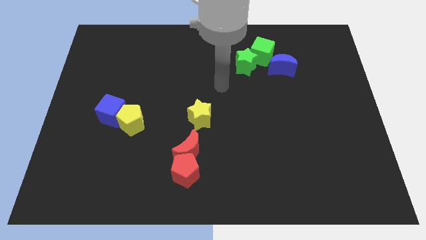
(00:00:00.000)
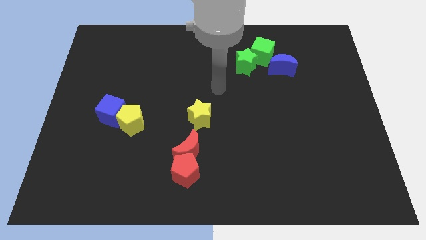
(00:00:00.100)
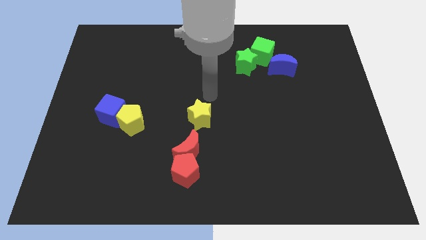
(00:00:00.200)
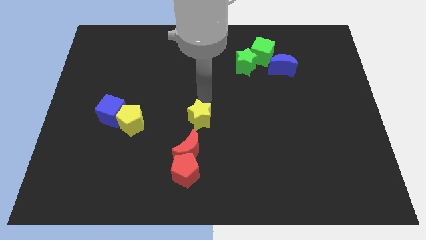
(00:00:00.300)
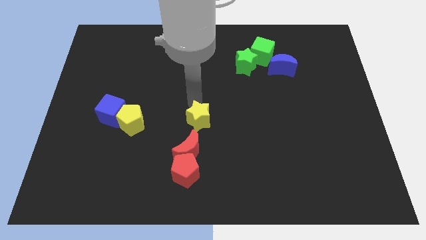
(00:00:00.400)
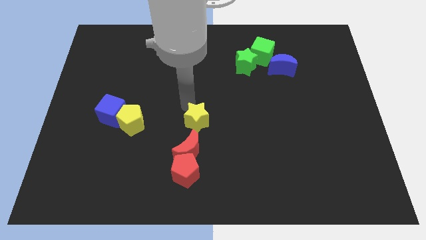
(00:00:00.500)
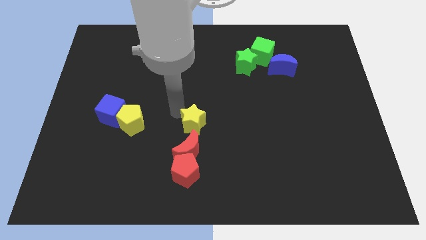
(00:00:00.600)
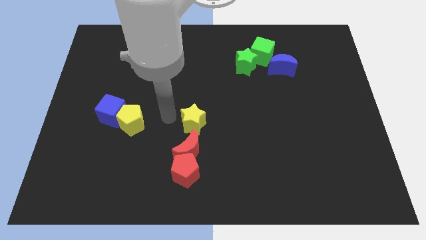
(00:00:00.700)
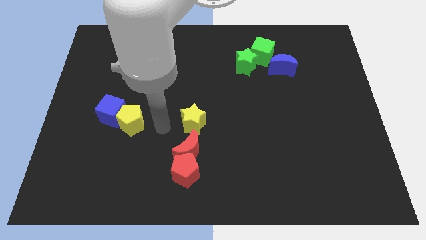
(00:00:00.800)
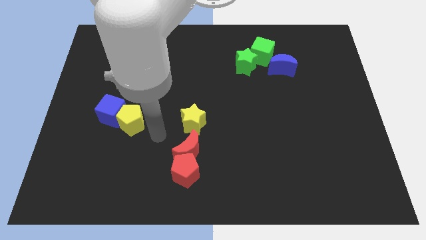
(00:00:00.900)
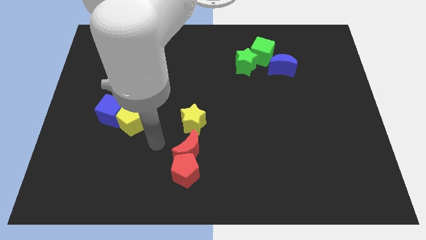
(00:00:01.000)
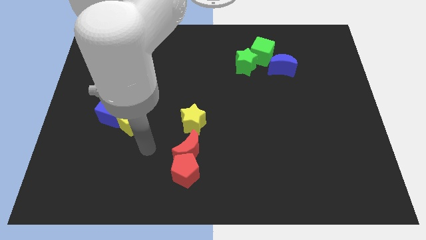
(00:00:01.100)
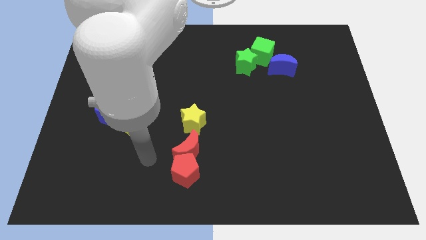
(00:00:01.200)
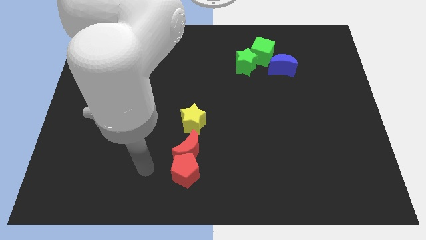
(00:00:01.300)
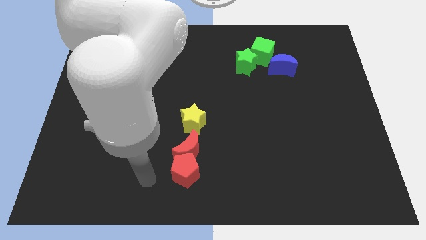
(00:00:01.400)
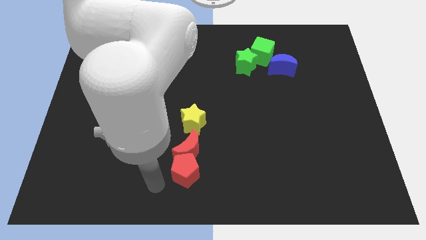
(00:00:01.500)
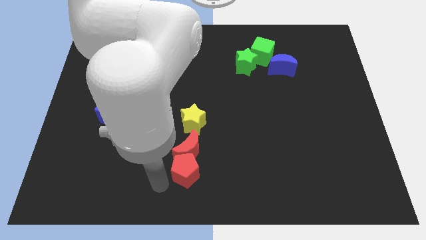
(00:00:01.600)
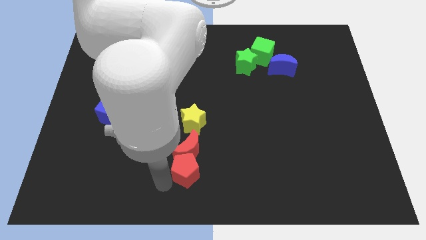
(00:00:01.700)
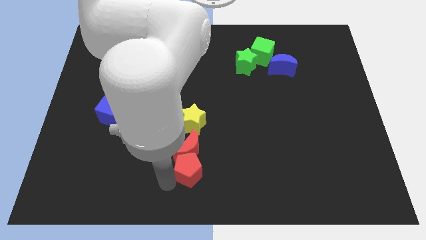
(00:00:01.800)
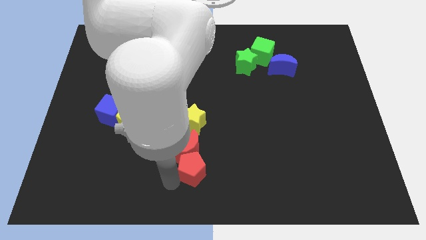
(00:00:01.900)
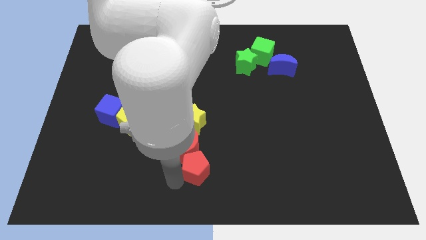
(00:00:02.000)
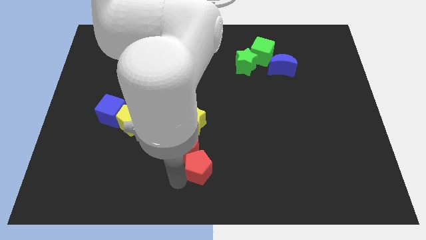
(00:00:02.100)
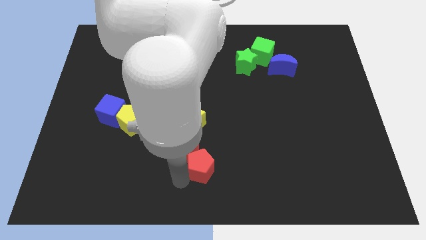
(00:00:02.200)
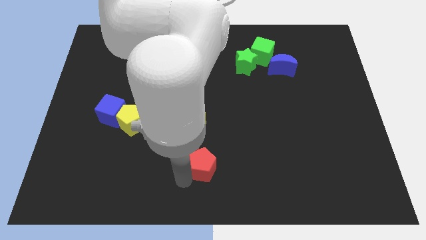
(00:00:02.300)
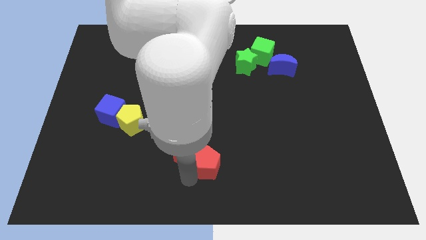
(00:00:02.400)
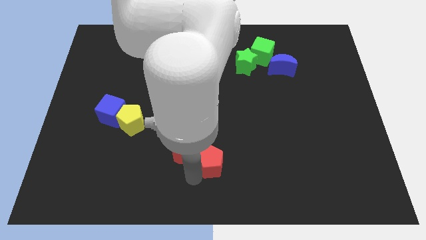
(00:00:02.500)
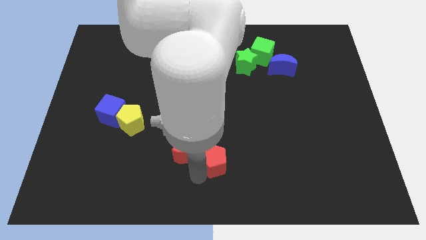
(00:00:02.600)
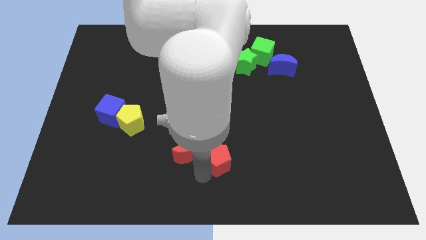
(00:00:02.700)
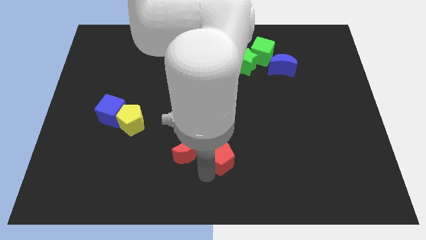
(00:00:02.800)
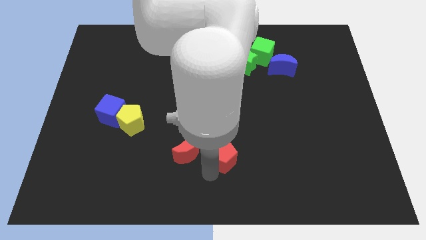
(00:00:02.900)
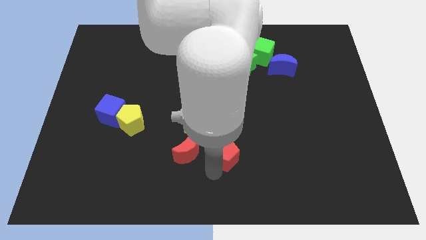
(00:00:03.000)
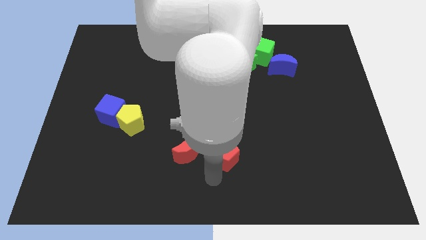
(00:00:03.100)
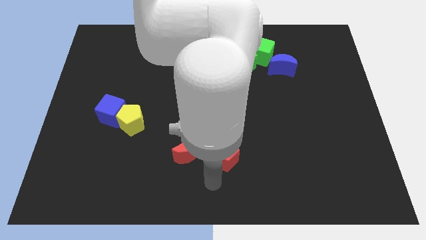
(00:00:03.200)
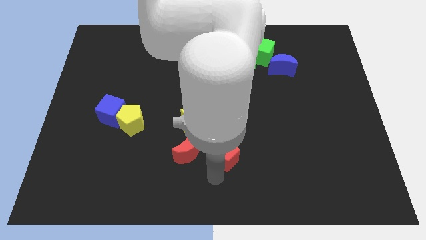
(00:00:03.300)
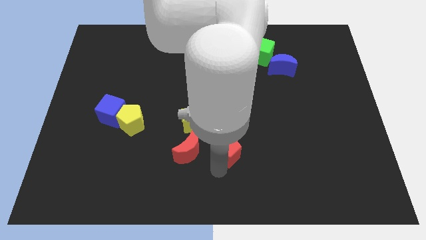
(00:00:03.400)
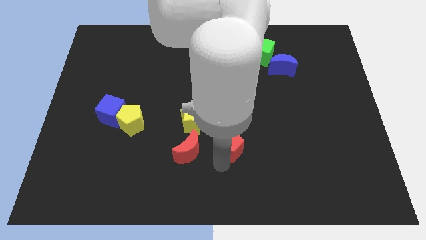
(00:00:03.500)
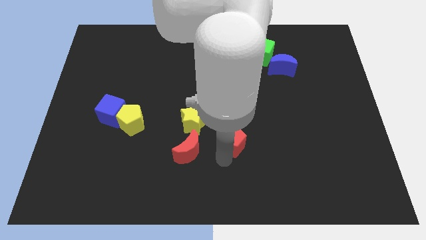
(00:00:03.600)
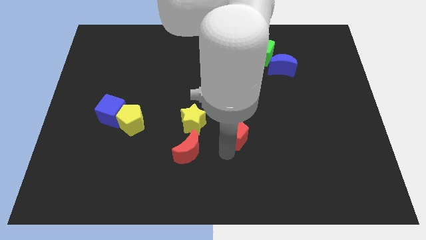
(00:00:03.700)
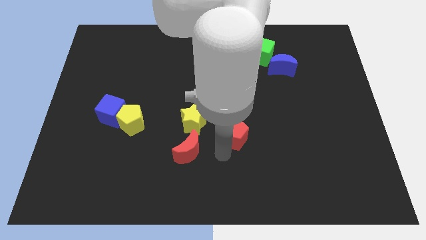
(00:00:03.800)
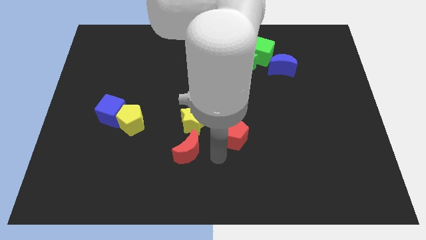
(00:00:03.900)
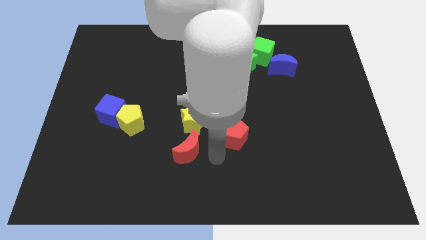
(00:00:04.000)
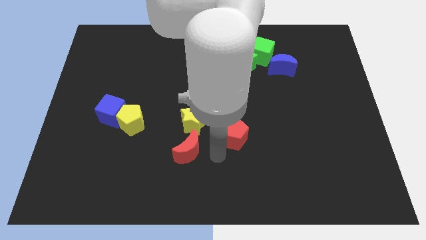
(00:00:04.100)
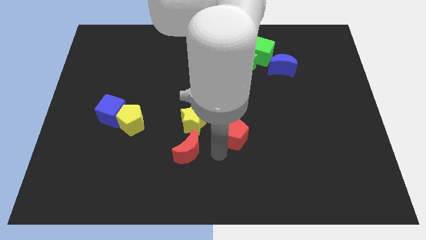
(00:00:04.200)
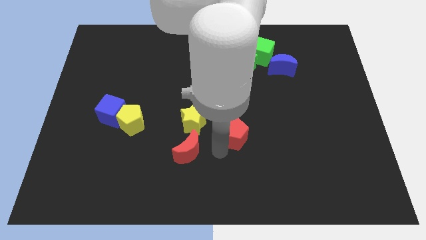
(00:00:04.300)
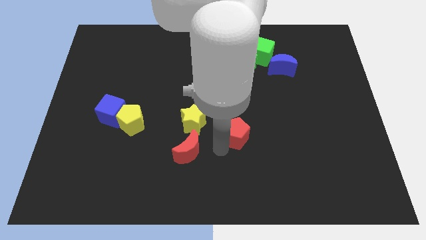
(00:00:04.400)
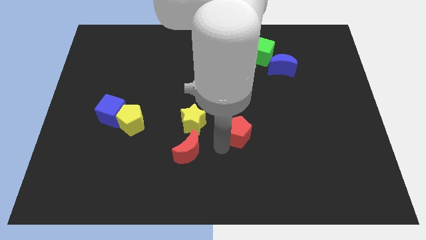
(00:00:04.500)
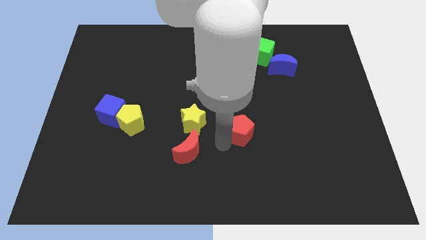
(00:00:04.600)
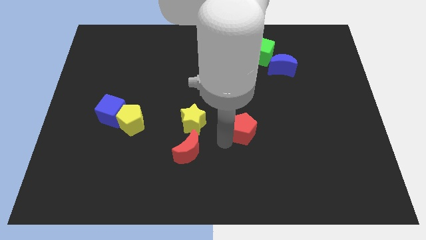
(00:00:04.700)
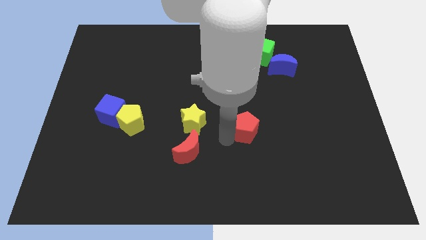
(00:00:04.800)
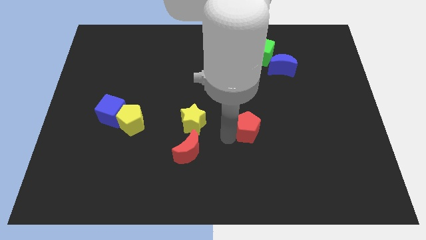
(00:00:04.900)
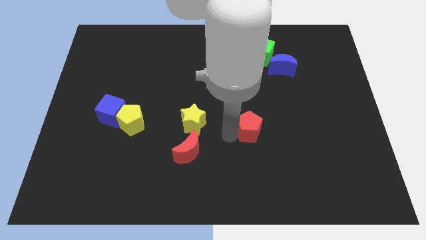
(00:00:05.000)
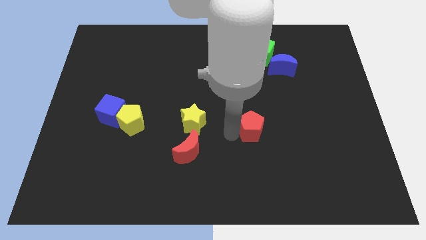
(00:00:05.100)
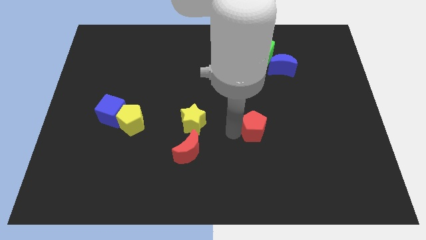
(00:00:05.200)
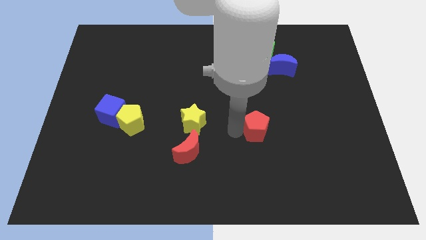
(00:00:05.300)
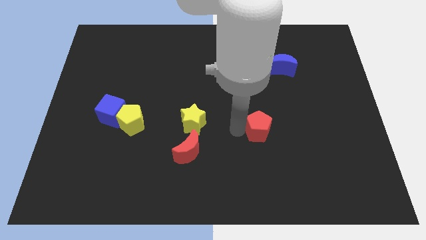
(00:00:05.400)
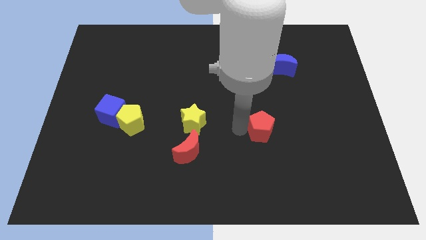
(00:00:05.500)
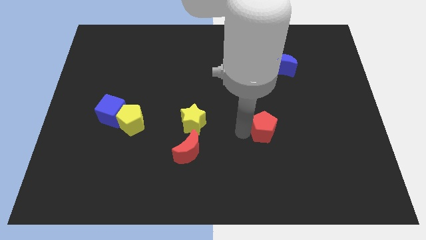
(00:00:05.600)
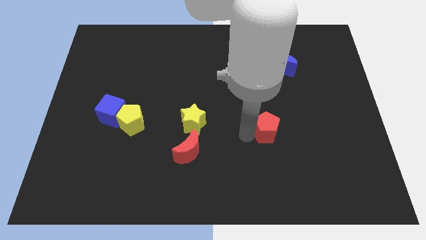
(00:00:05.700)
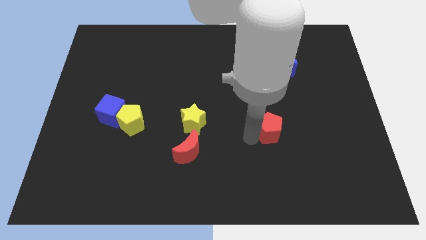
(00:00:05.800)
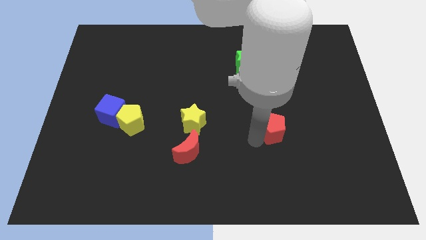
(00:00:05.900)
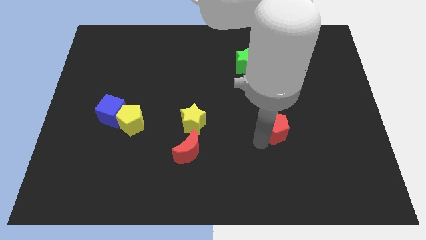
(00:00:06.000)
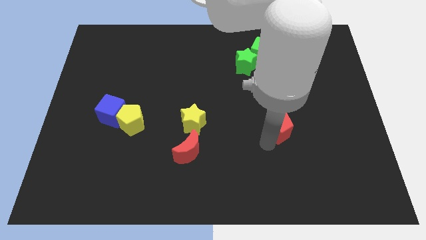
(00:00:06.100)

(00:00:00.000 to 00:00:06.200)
slide the red pentagon upwards and then right

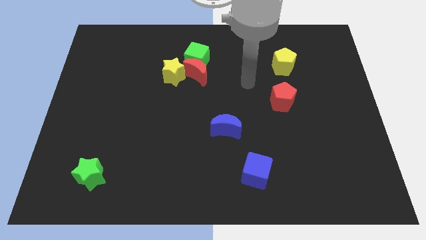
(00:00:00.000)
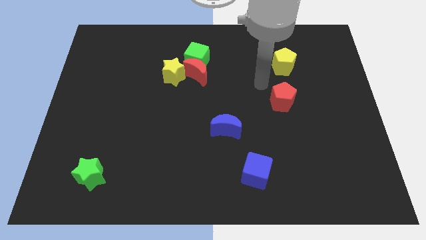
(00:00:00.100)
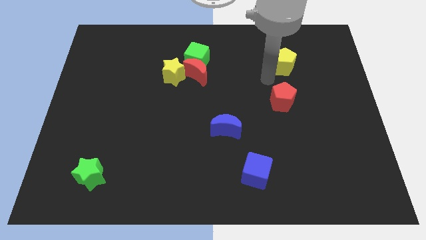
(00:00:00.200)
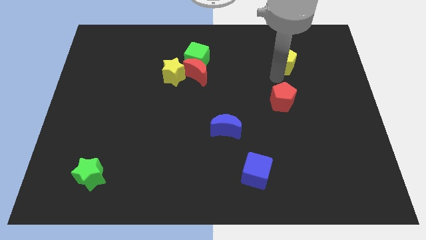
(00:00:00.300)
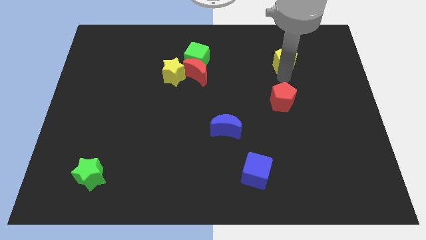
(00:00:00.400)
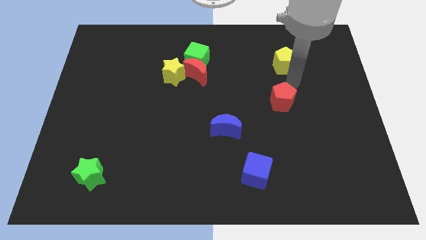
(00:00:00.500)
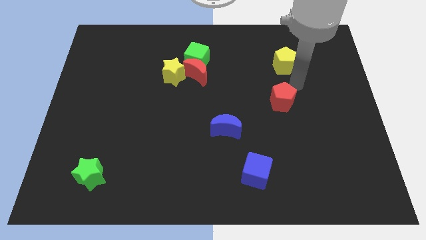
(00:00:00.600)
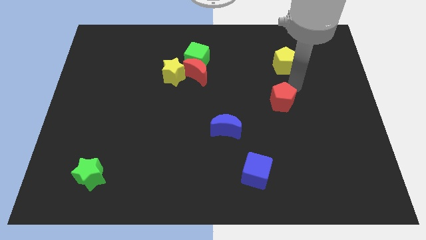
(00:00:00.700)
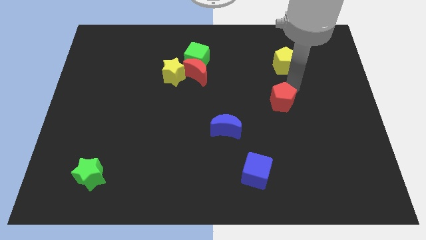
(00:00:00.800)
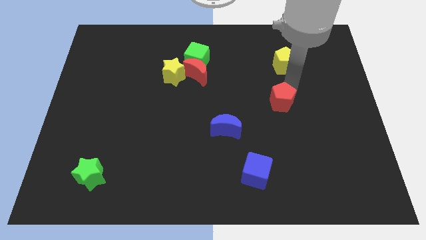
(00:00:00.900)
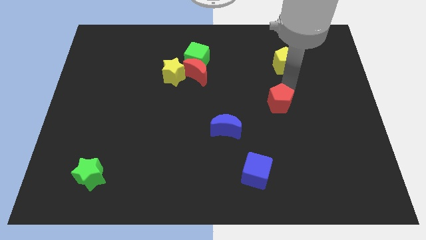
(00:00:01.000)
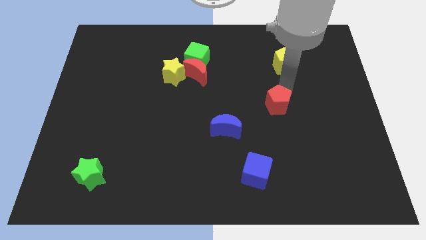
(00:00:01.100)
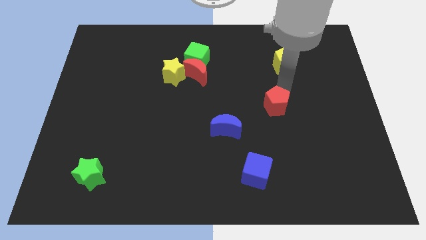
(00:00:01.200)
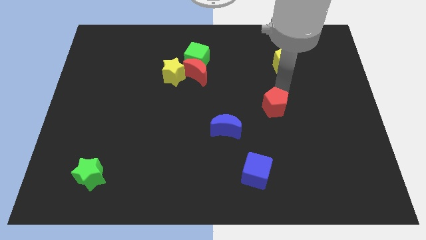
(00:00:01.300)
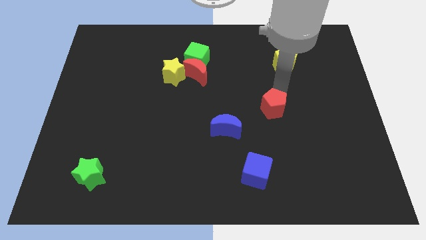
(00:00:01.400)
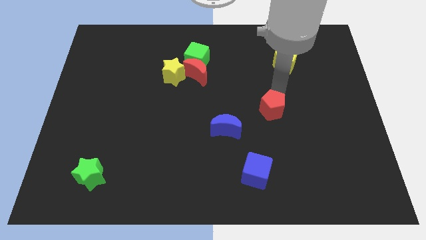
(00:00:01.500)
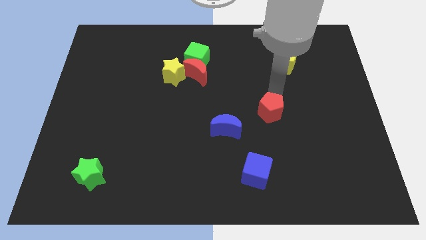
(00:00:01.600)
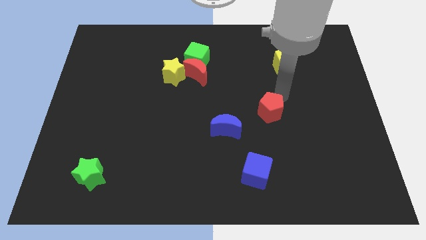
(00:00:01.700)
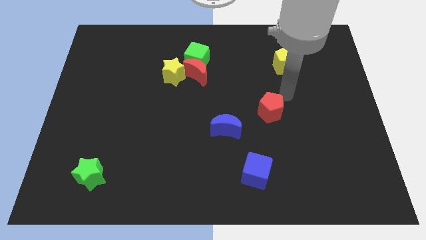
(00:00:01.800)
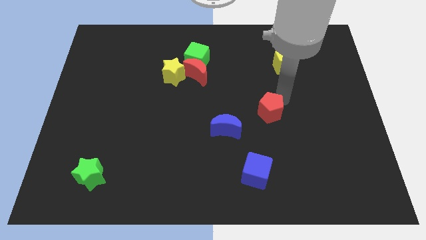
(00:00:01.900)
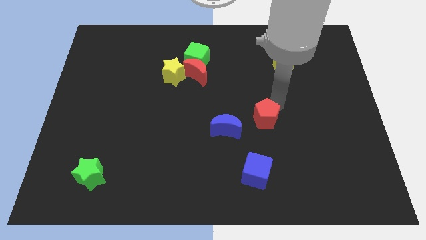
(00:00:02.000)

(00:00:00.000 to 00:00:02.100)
slightly move the red pentagon downwards and left diagonally
